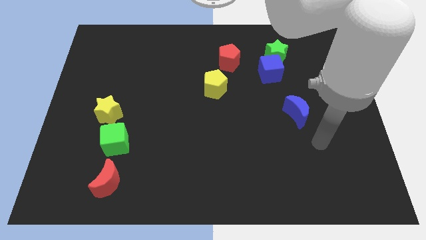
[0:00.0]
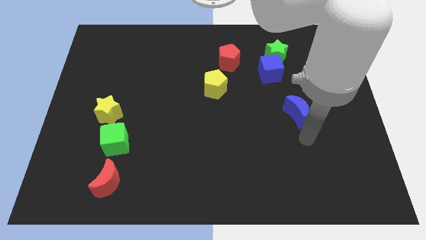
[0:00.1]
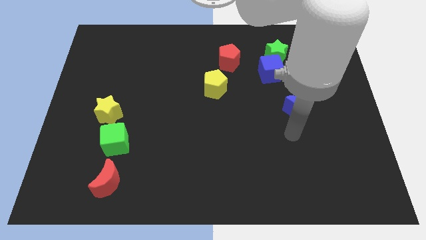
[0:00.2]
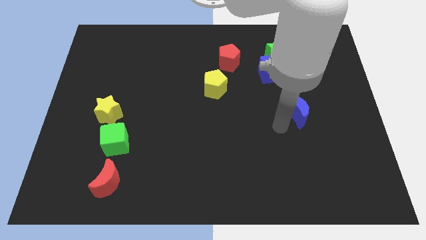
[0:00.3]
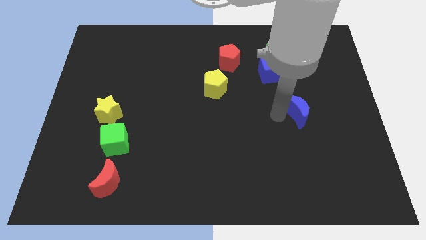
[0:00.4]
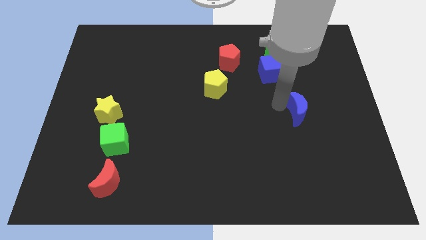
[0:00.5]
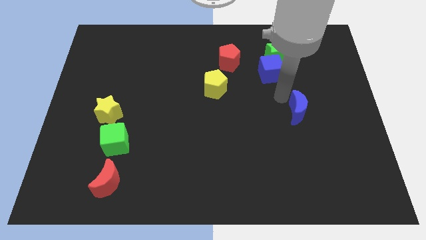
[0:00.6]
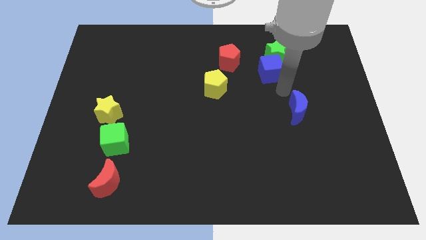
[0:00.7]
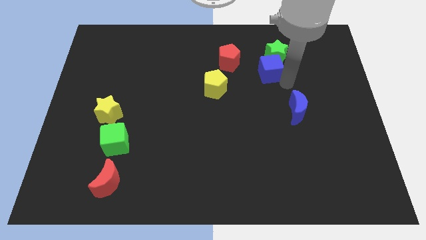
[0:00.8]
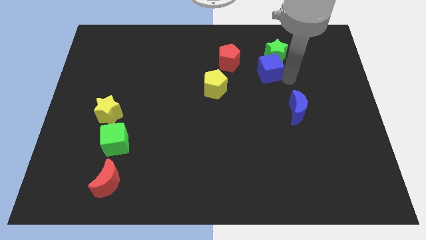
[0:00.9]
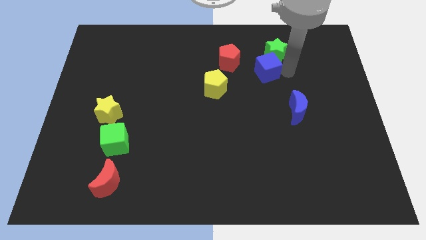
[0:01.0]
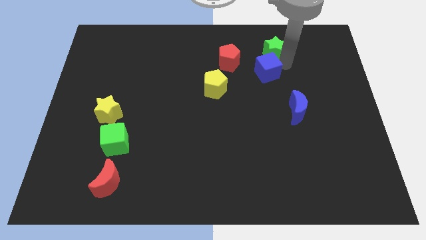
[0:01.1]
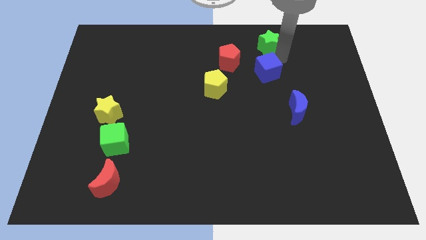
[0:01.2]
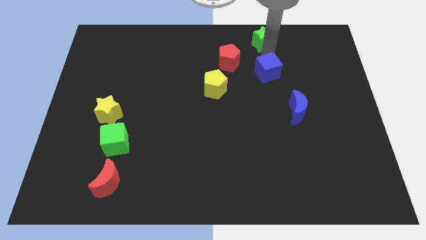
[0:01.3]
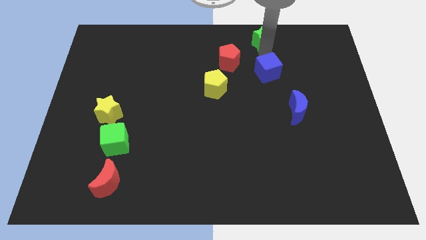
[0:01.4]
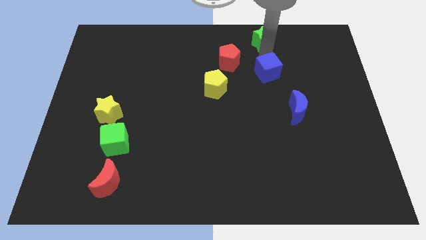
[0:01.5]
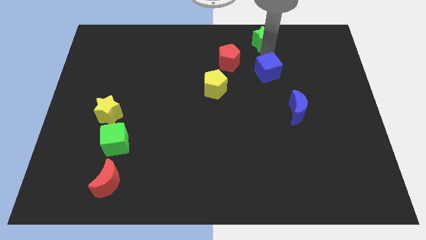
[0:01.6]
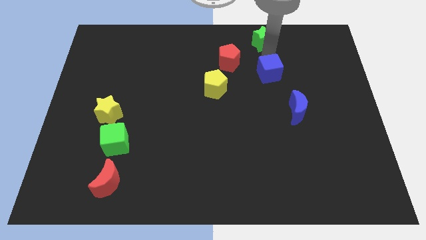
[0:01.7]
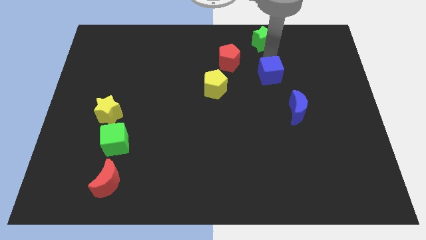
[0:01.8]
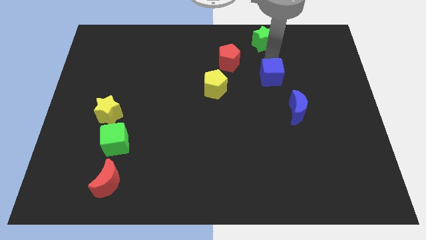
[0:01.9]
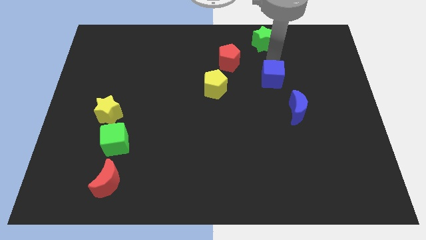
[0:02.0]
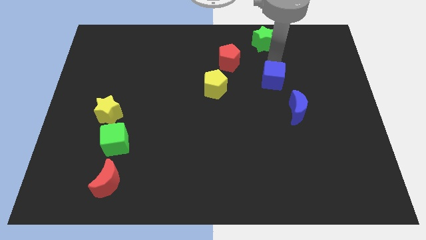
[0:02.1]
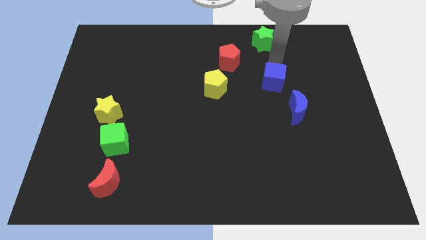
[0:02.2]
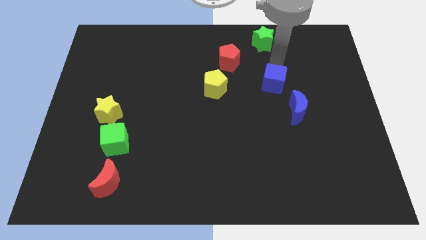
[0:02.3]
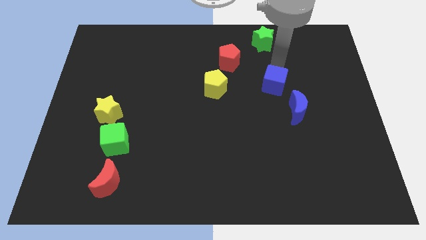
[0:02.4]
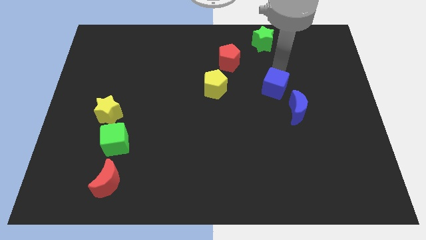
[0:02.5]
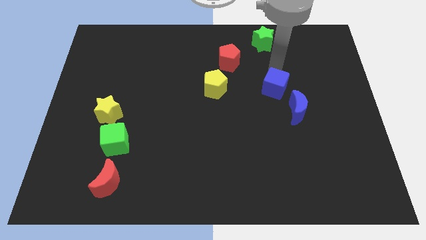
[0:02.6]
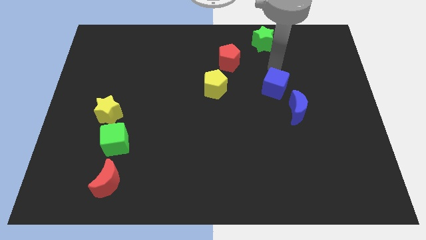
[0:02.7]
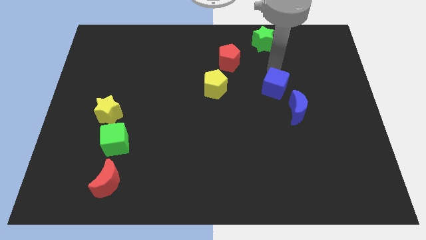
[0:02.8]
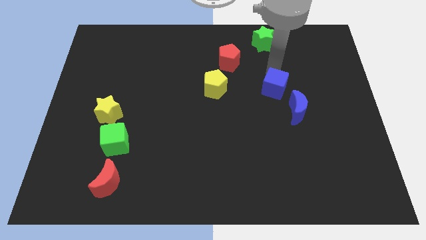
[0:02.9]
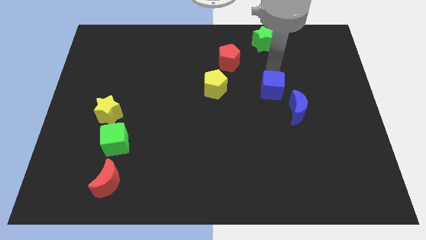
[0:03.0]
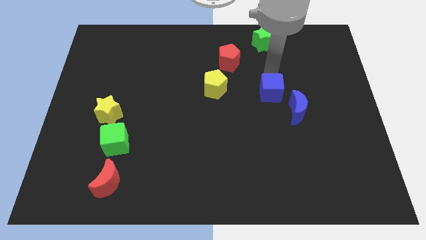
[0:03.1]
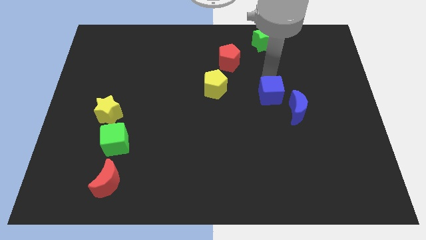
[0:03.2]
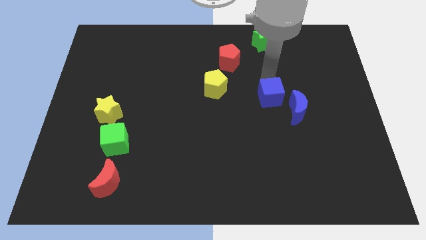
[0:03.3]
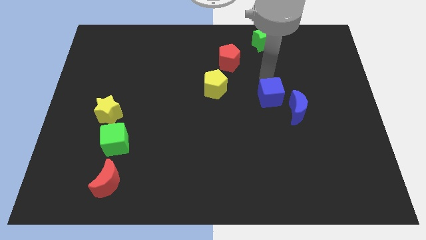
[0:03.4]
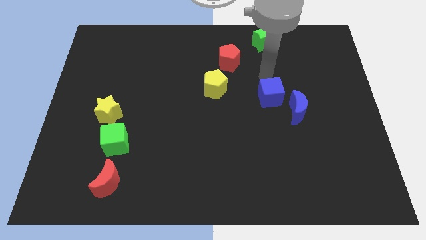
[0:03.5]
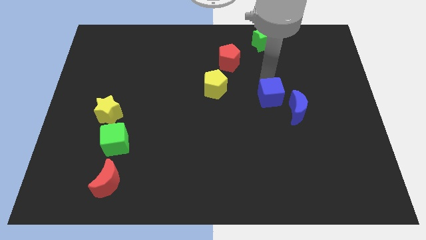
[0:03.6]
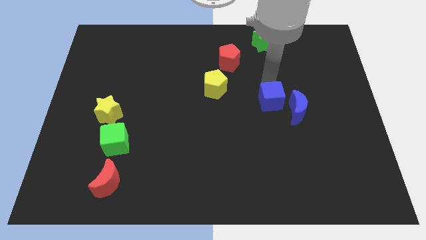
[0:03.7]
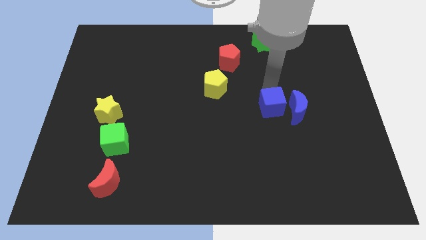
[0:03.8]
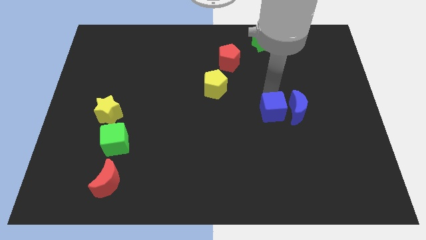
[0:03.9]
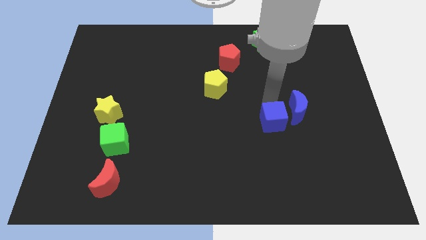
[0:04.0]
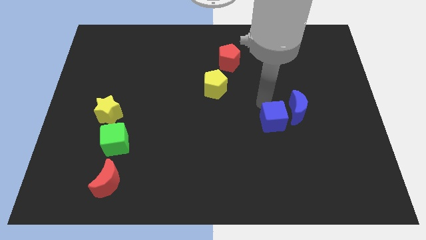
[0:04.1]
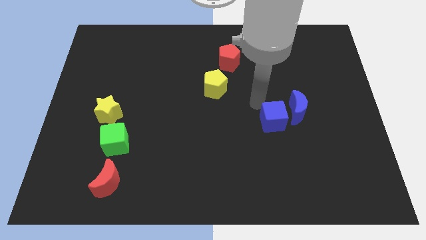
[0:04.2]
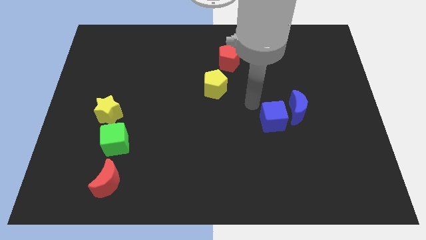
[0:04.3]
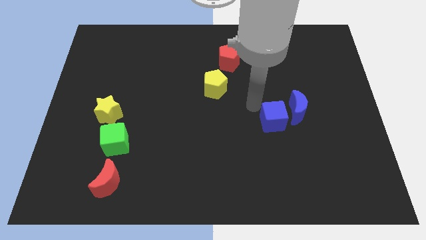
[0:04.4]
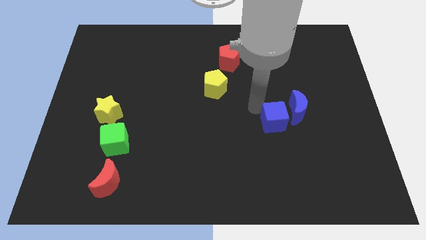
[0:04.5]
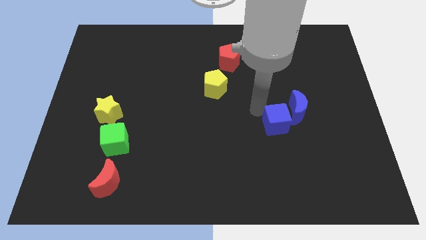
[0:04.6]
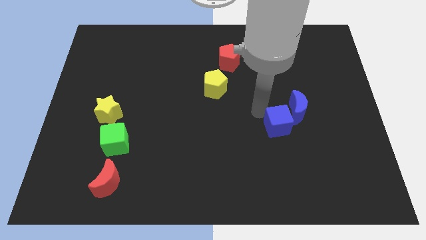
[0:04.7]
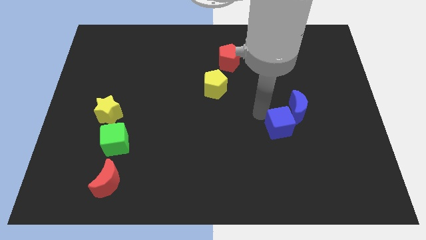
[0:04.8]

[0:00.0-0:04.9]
push the blue cube to the bottom of the blue moon

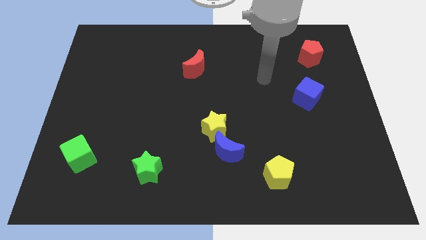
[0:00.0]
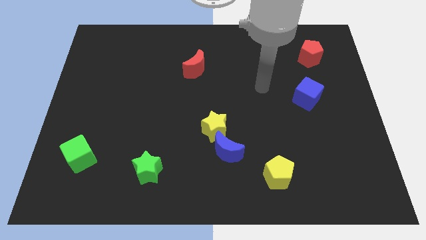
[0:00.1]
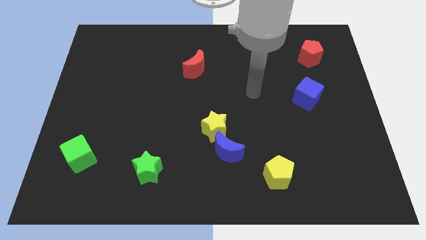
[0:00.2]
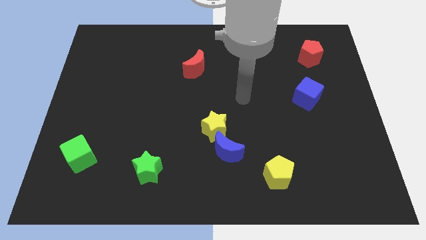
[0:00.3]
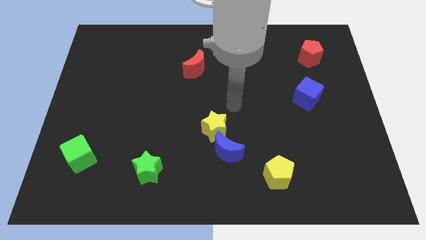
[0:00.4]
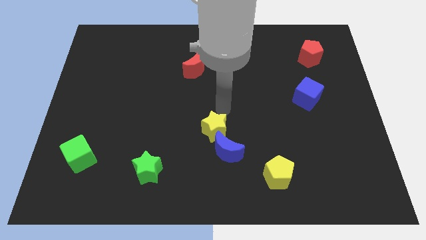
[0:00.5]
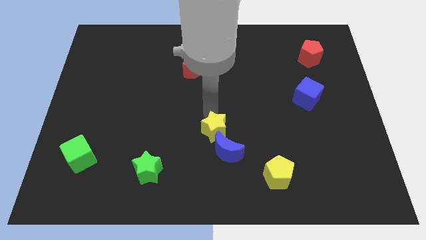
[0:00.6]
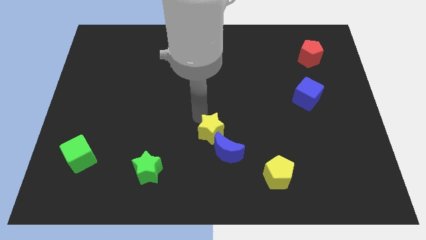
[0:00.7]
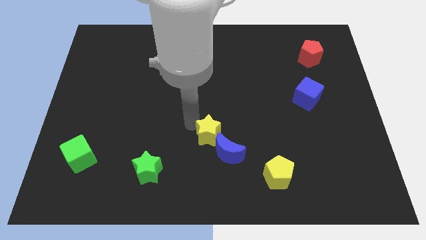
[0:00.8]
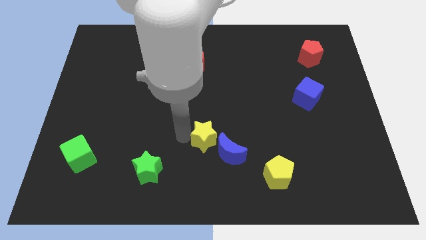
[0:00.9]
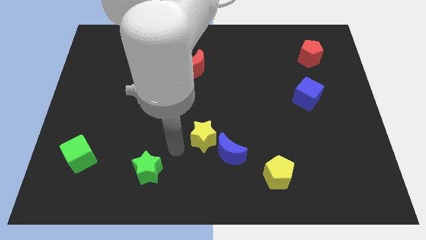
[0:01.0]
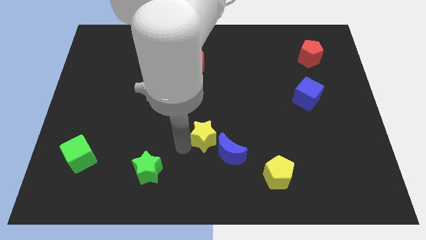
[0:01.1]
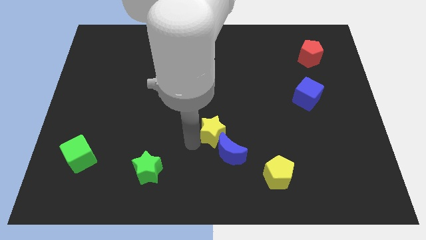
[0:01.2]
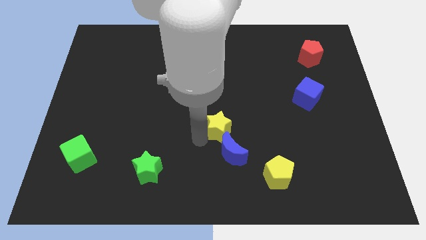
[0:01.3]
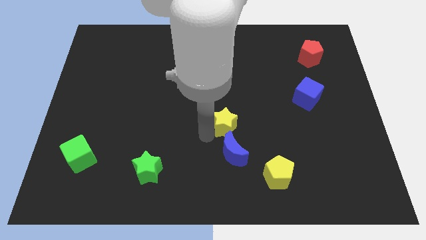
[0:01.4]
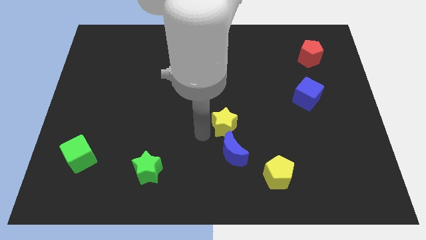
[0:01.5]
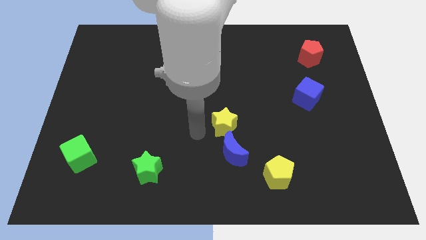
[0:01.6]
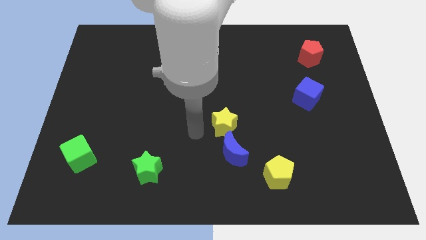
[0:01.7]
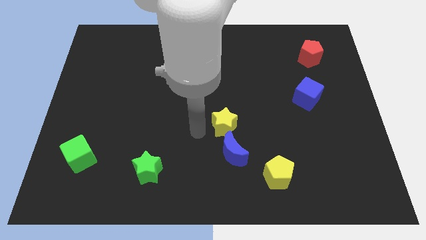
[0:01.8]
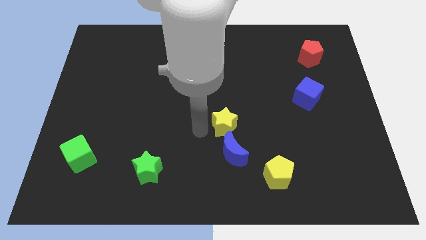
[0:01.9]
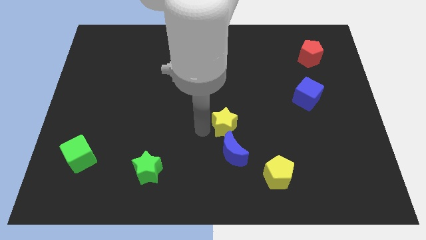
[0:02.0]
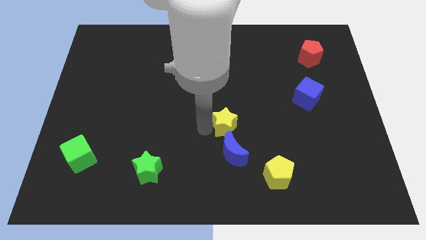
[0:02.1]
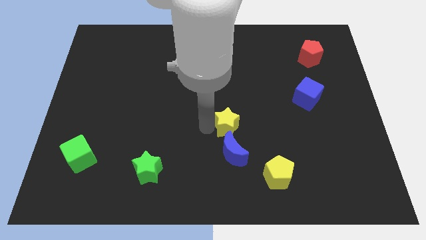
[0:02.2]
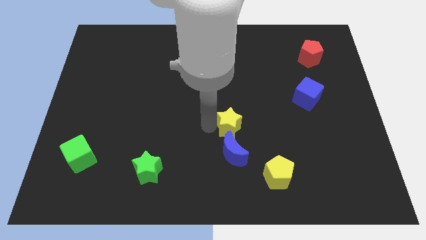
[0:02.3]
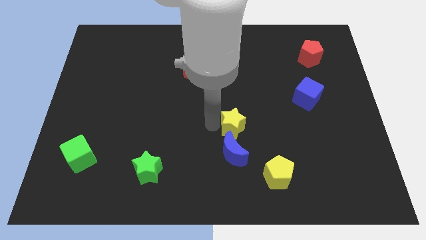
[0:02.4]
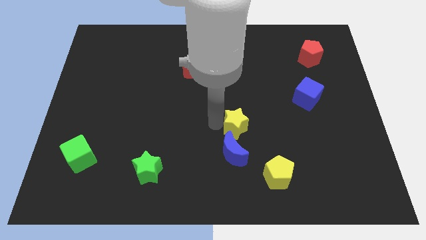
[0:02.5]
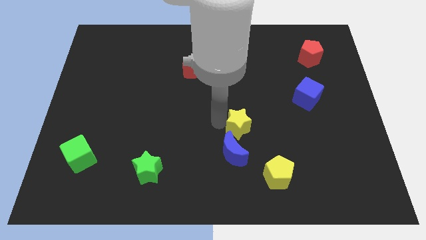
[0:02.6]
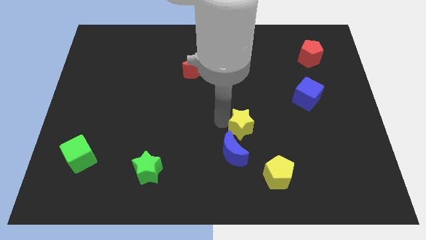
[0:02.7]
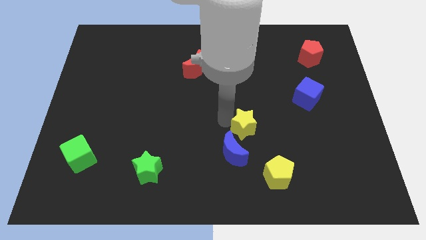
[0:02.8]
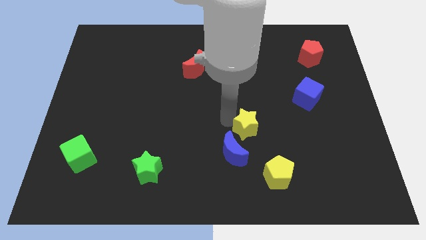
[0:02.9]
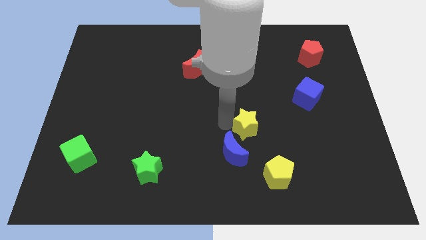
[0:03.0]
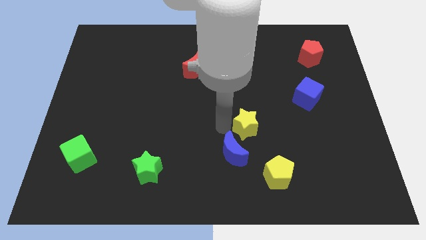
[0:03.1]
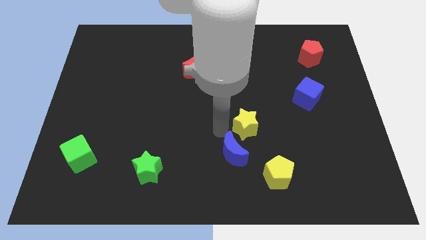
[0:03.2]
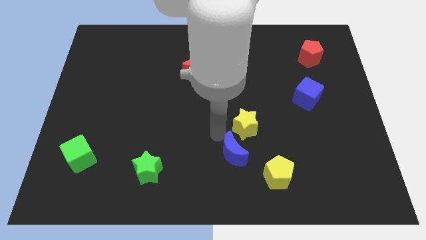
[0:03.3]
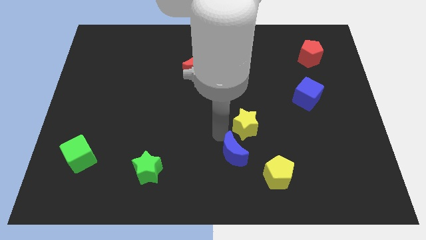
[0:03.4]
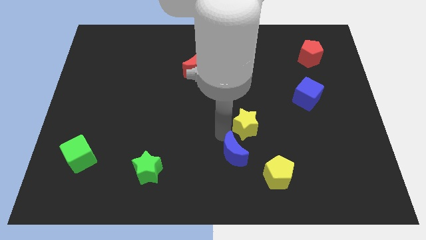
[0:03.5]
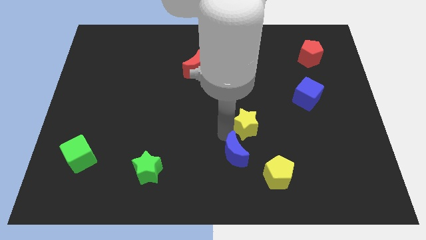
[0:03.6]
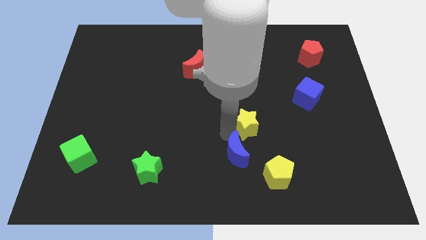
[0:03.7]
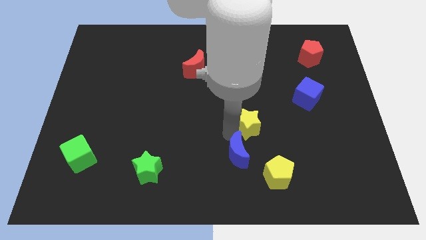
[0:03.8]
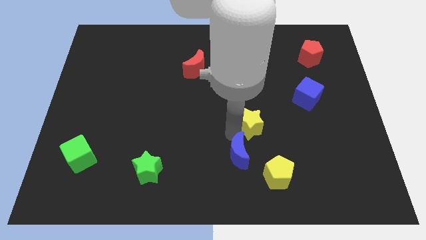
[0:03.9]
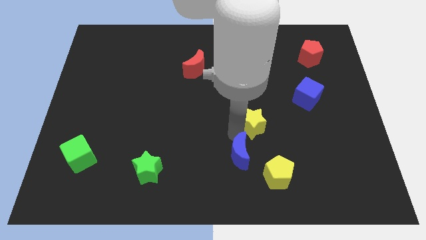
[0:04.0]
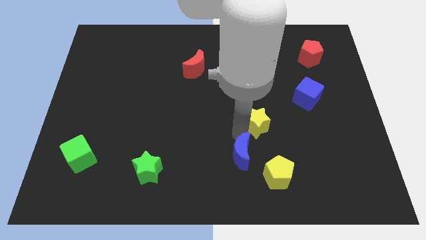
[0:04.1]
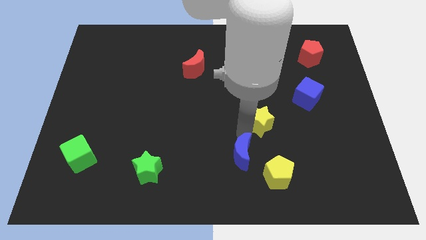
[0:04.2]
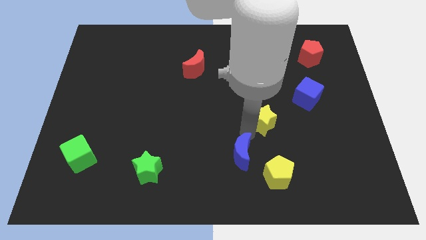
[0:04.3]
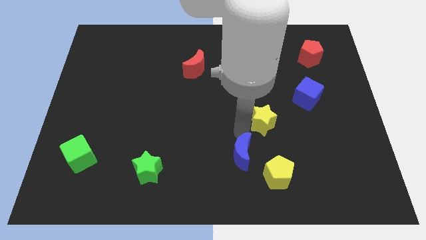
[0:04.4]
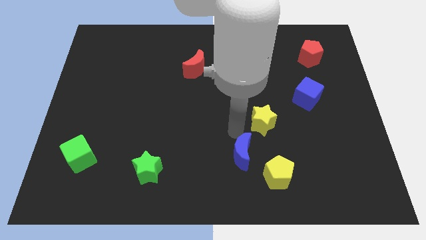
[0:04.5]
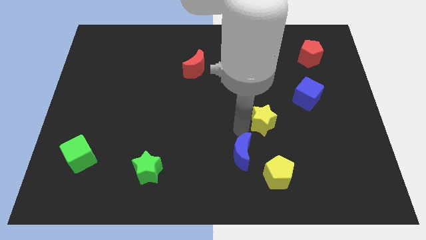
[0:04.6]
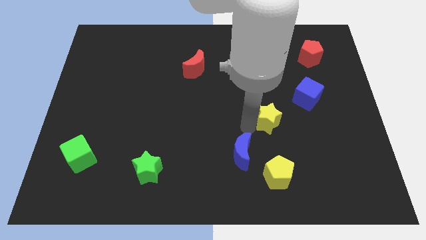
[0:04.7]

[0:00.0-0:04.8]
put the yellow star to the bottom left of the blue cube
